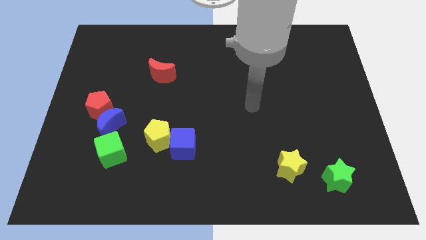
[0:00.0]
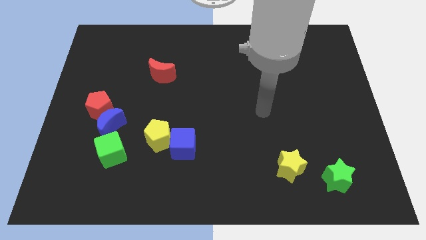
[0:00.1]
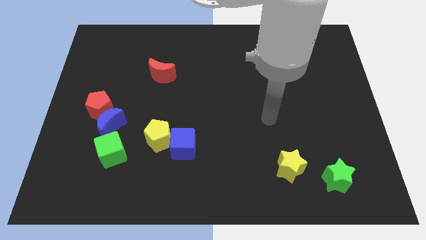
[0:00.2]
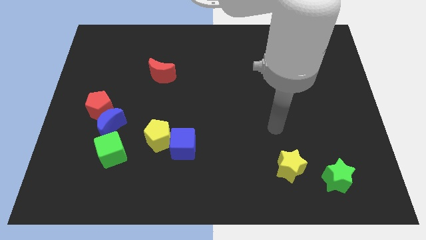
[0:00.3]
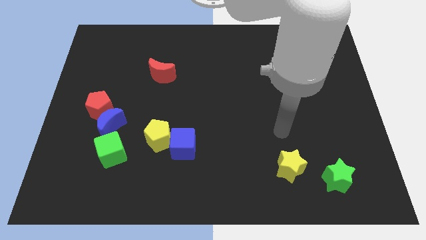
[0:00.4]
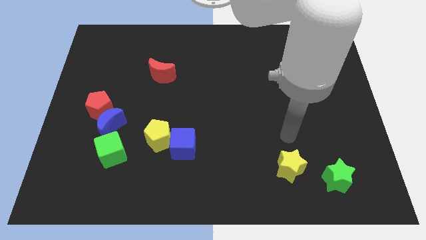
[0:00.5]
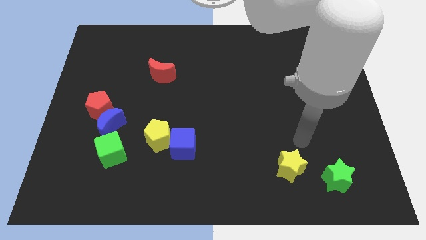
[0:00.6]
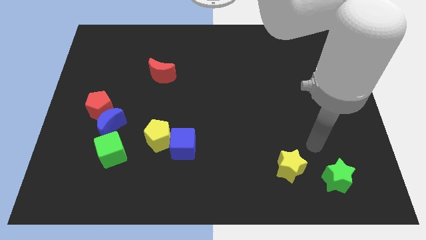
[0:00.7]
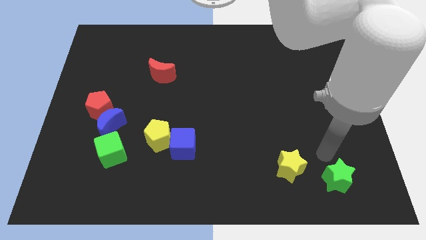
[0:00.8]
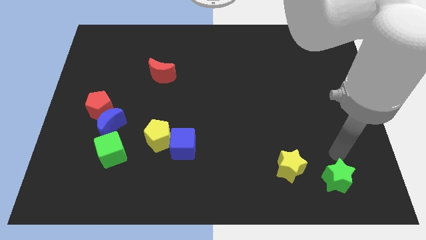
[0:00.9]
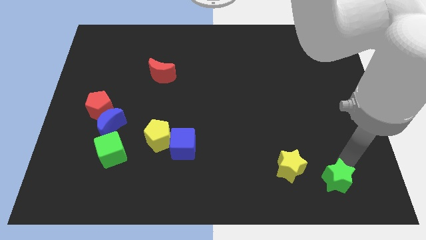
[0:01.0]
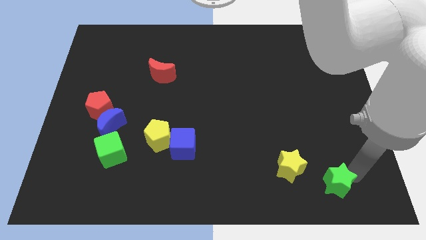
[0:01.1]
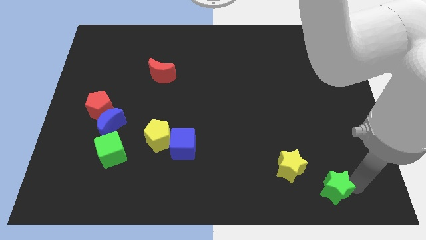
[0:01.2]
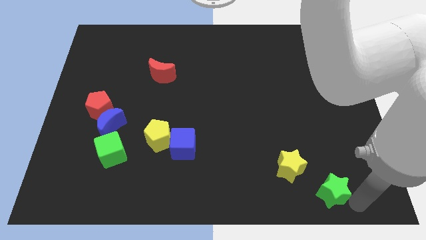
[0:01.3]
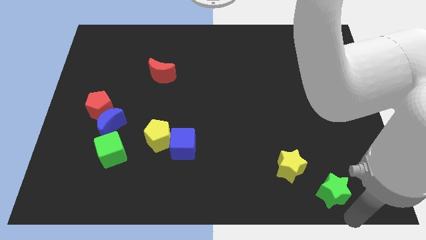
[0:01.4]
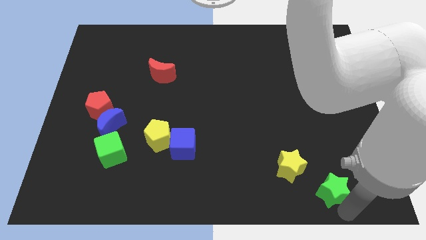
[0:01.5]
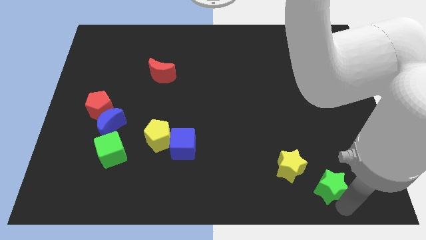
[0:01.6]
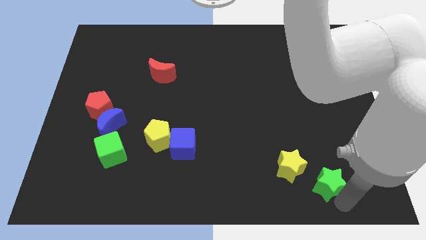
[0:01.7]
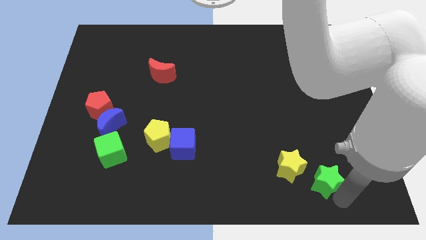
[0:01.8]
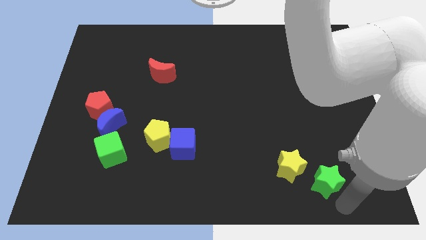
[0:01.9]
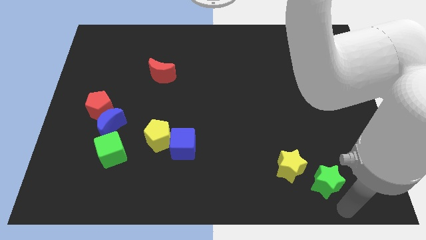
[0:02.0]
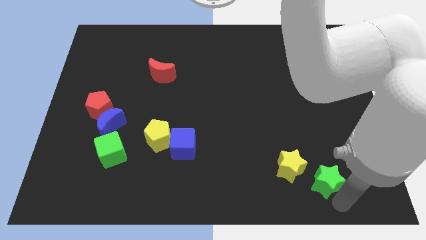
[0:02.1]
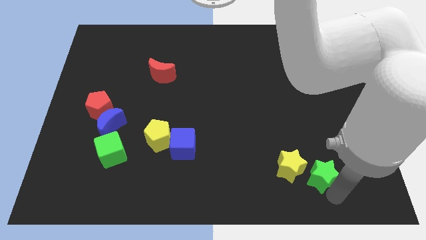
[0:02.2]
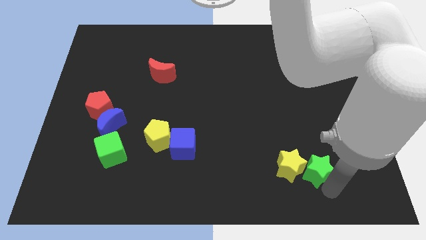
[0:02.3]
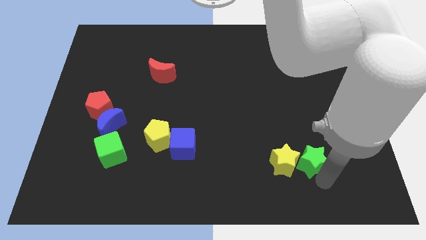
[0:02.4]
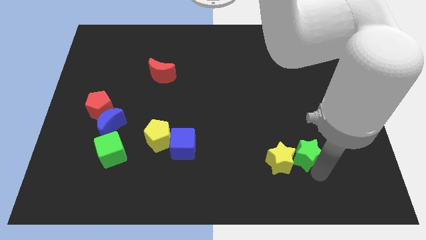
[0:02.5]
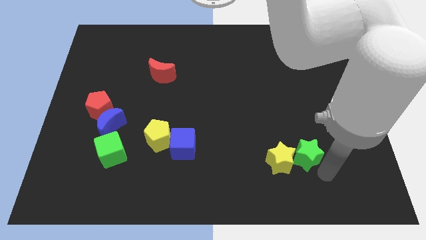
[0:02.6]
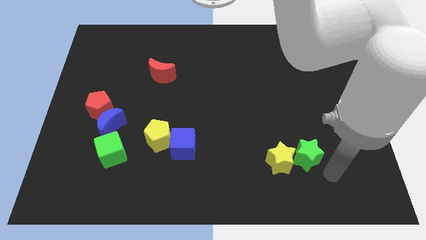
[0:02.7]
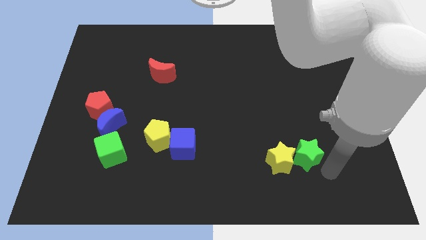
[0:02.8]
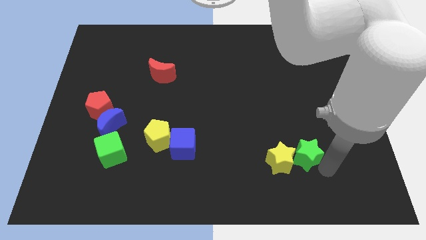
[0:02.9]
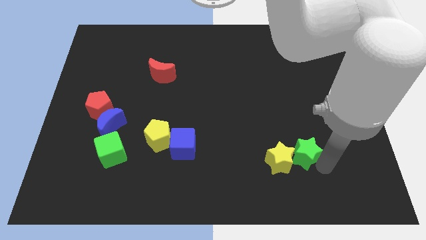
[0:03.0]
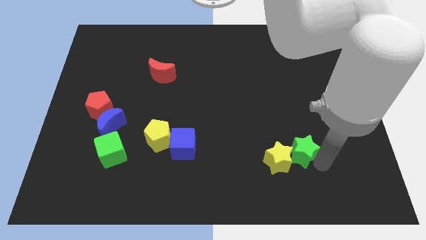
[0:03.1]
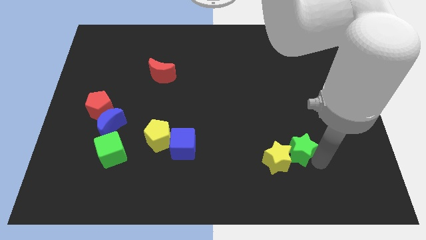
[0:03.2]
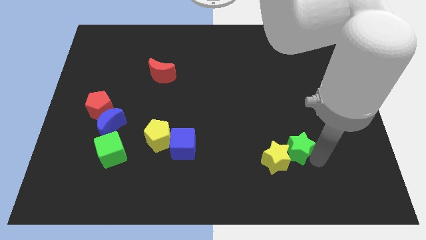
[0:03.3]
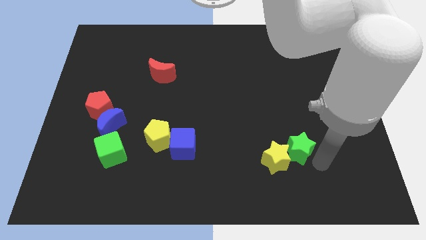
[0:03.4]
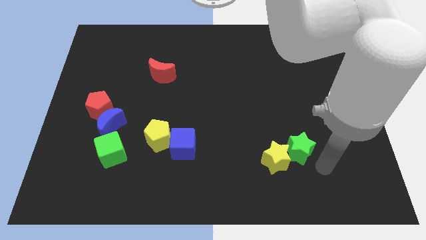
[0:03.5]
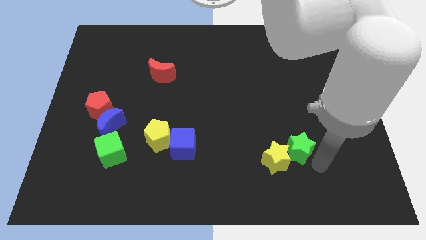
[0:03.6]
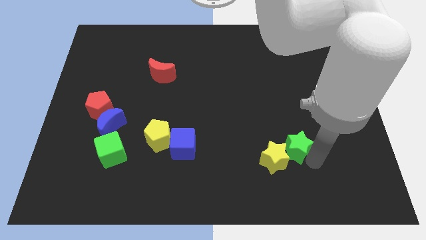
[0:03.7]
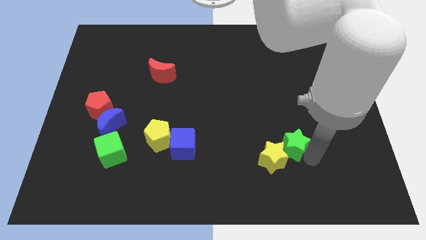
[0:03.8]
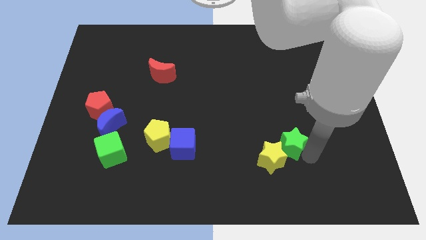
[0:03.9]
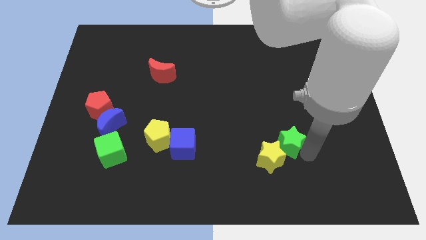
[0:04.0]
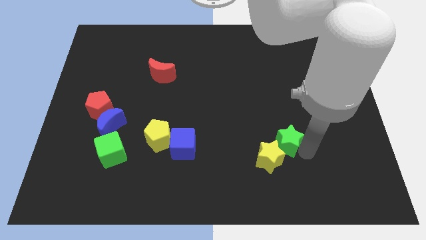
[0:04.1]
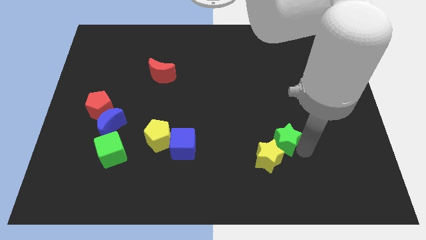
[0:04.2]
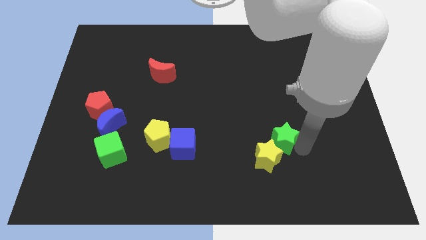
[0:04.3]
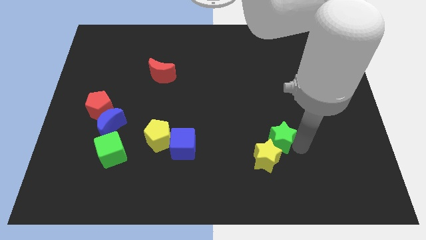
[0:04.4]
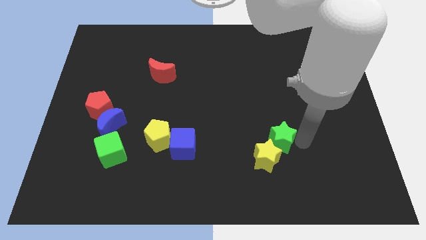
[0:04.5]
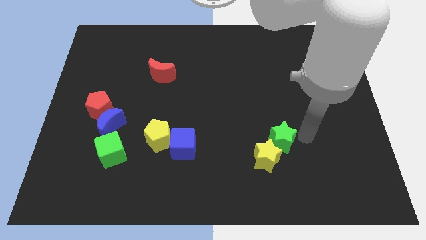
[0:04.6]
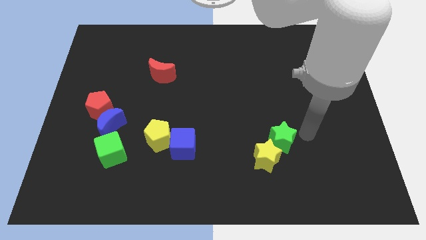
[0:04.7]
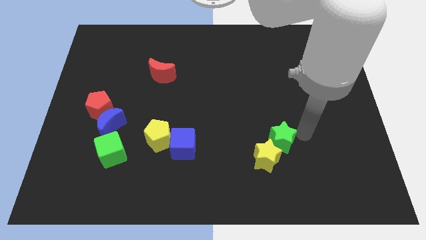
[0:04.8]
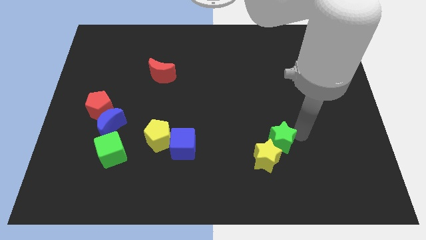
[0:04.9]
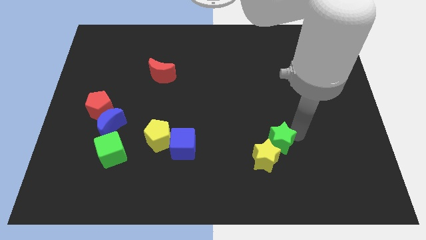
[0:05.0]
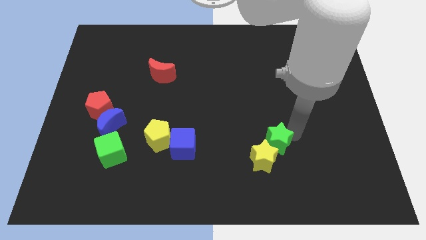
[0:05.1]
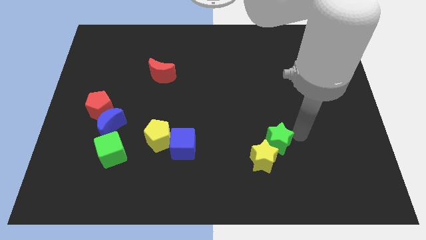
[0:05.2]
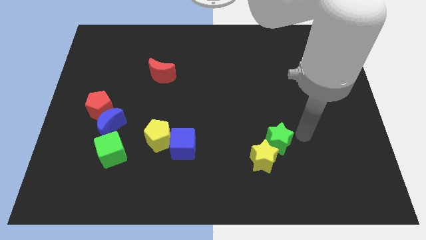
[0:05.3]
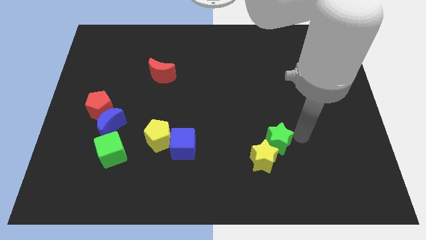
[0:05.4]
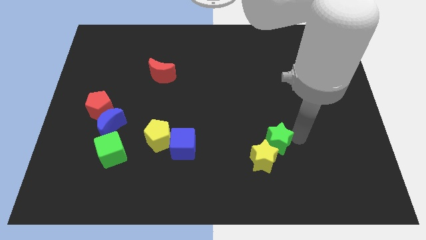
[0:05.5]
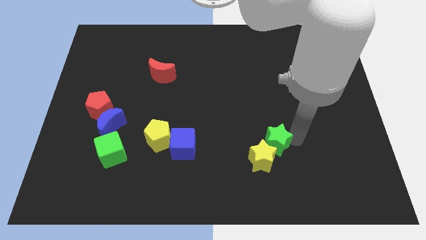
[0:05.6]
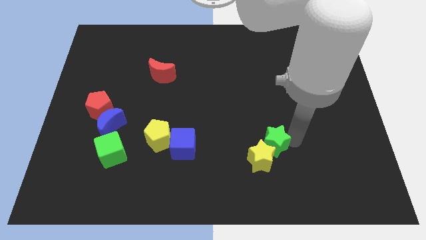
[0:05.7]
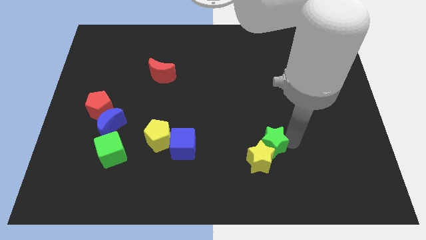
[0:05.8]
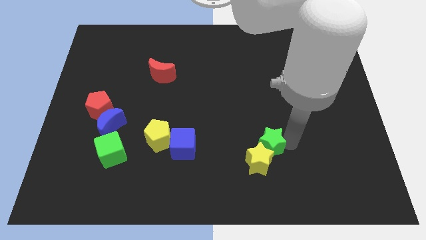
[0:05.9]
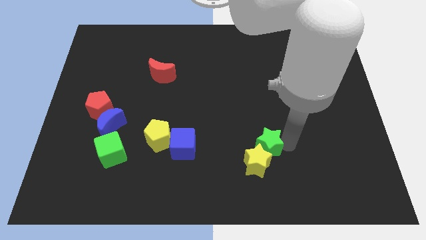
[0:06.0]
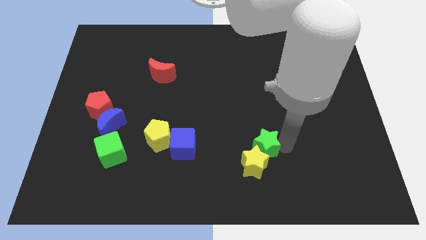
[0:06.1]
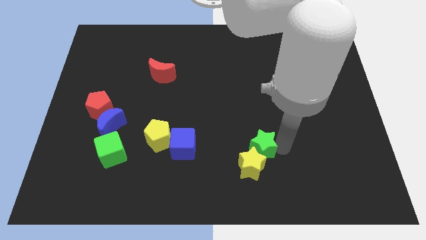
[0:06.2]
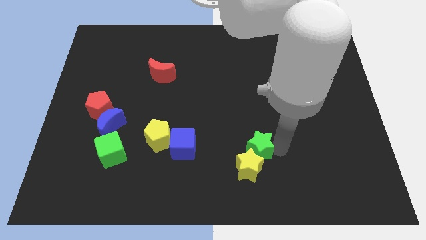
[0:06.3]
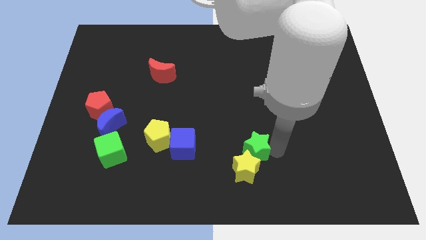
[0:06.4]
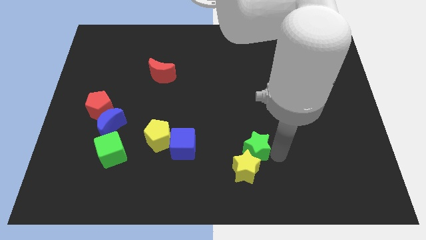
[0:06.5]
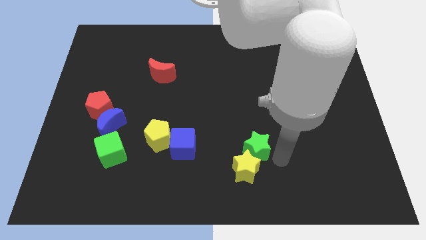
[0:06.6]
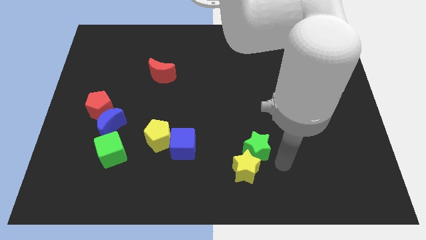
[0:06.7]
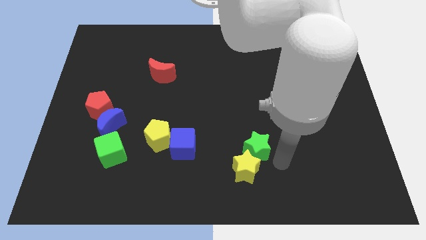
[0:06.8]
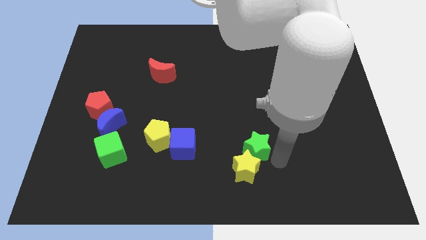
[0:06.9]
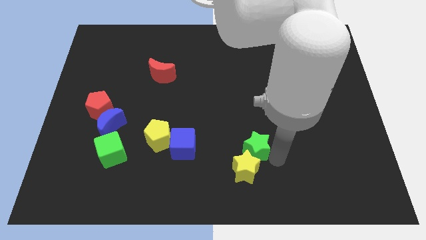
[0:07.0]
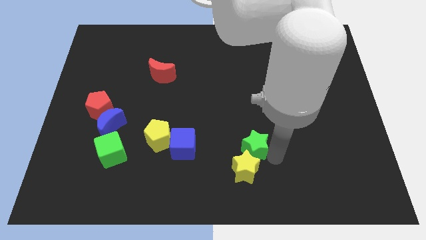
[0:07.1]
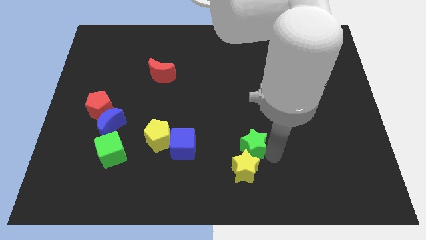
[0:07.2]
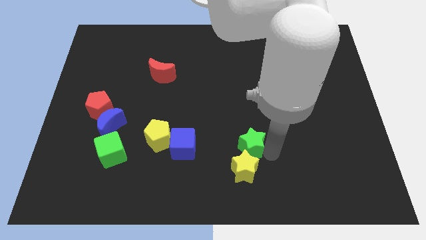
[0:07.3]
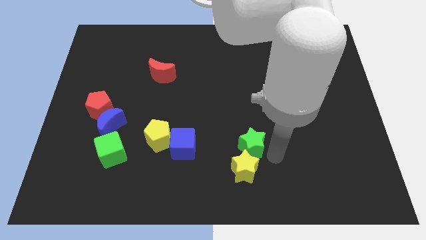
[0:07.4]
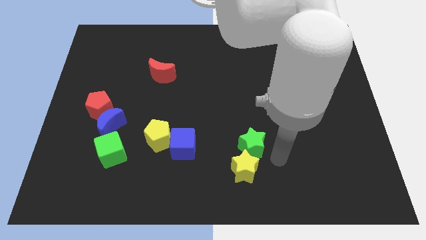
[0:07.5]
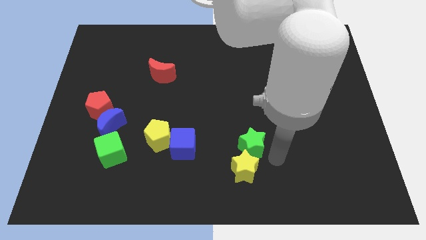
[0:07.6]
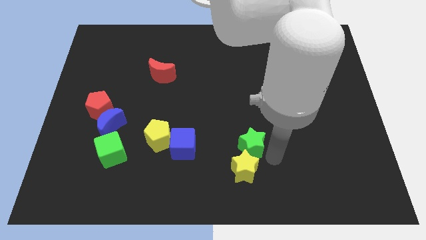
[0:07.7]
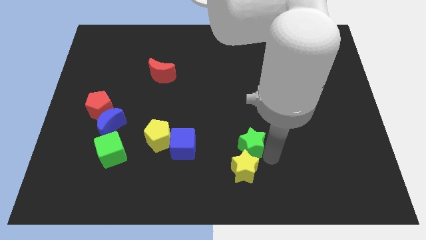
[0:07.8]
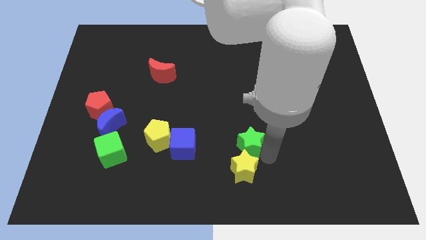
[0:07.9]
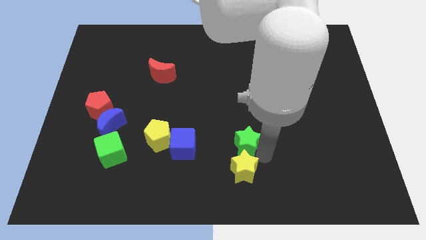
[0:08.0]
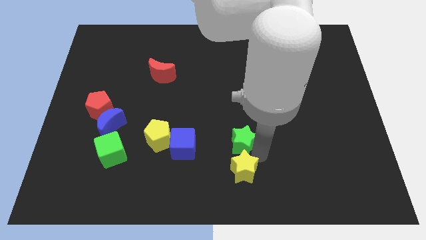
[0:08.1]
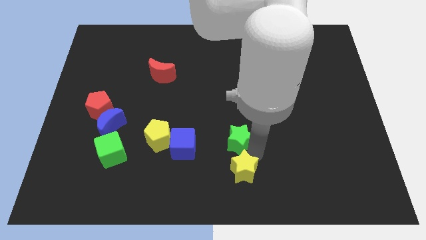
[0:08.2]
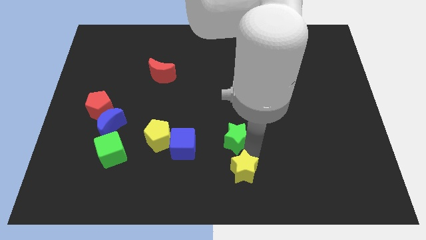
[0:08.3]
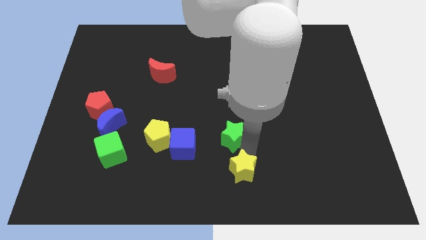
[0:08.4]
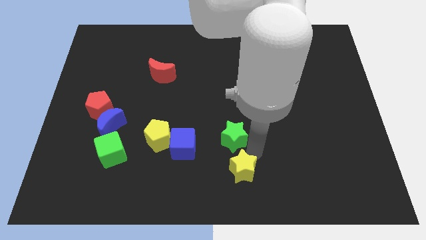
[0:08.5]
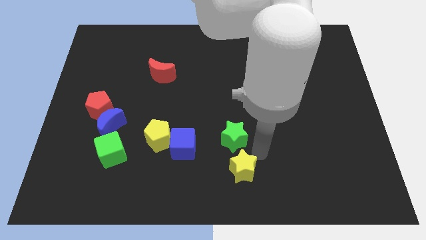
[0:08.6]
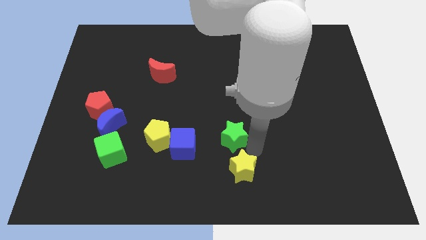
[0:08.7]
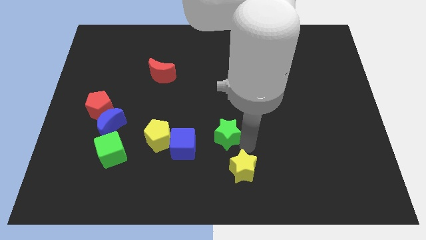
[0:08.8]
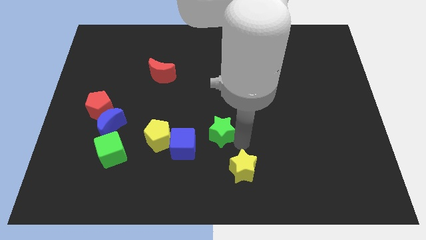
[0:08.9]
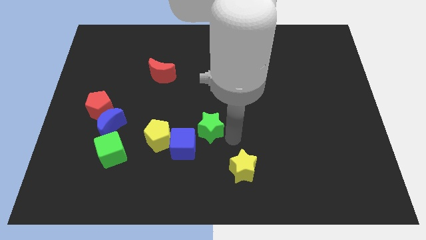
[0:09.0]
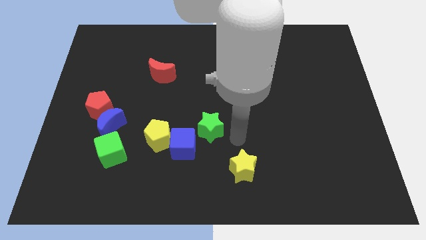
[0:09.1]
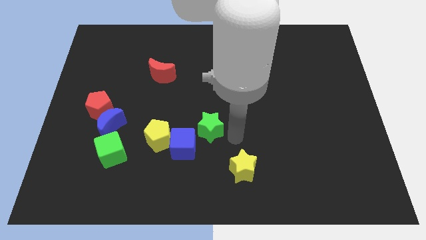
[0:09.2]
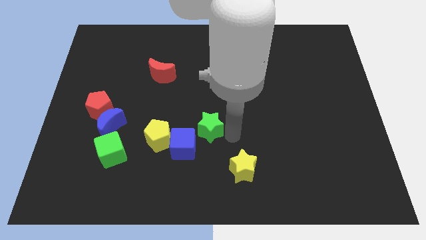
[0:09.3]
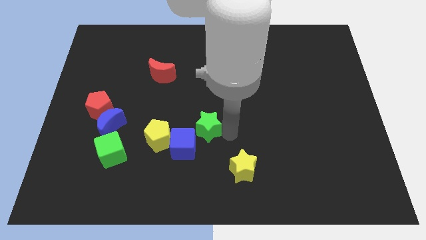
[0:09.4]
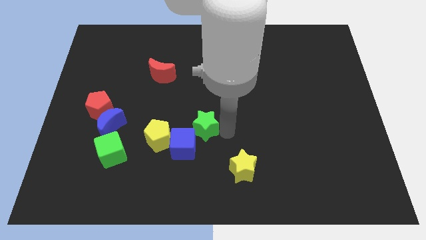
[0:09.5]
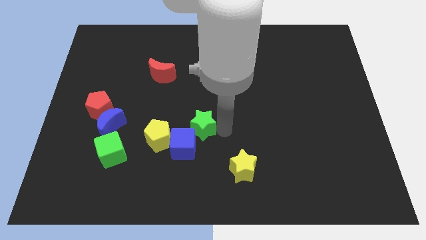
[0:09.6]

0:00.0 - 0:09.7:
put the green star diagonally up and to the right of the yellow pentagon
